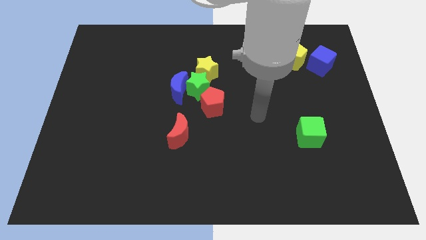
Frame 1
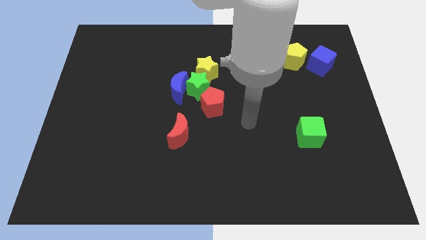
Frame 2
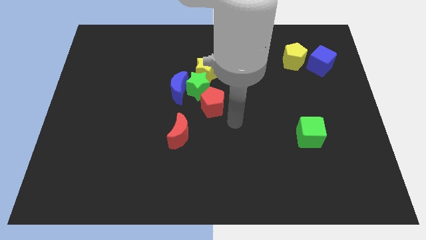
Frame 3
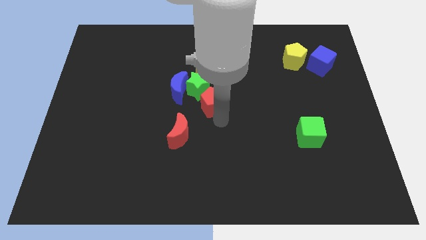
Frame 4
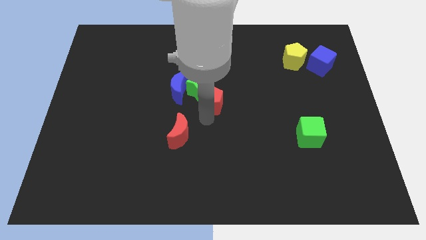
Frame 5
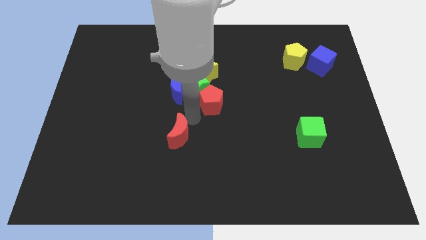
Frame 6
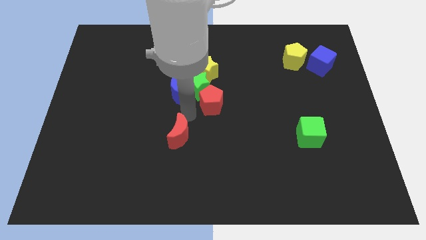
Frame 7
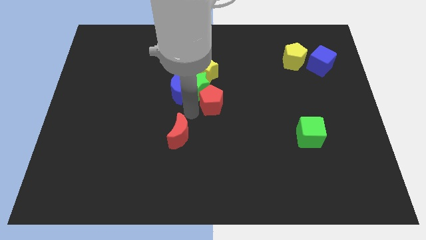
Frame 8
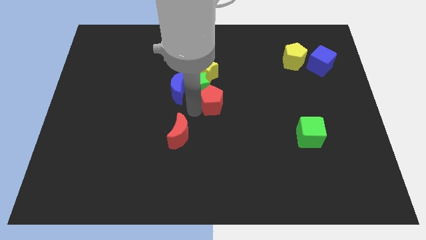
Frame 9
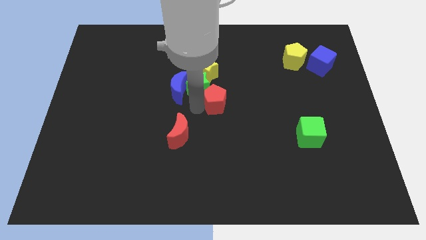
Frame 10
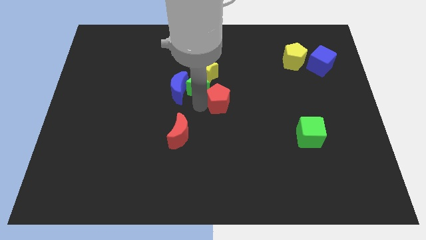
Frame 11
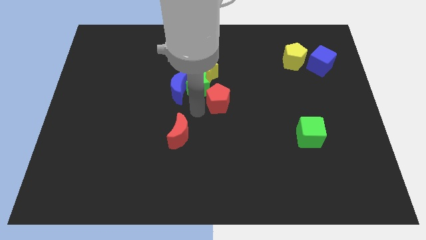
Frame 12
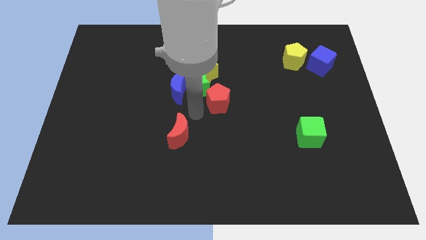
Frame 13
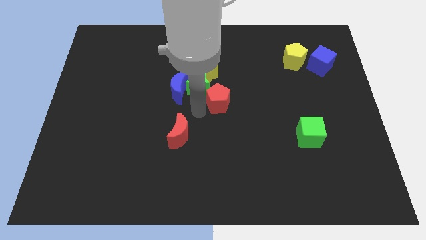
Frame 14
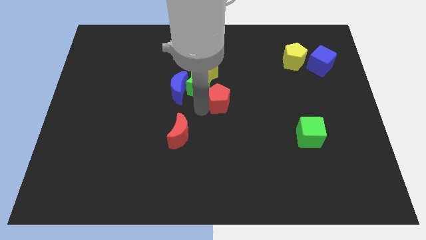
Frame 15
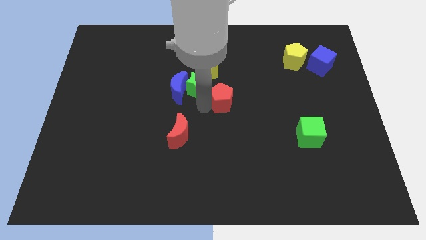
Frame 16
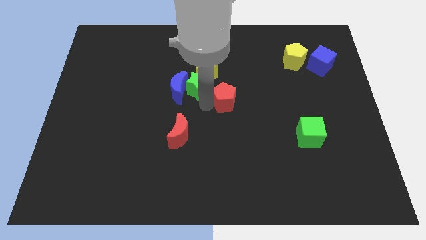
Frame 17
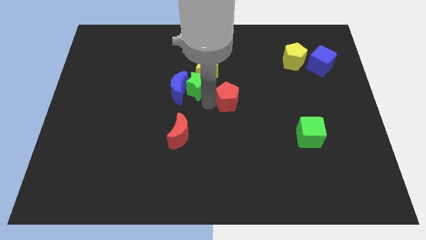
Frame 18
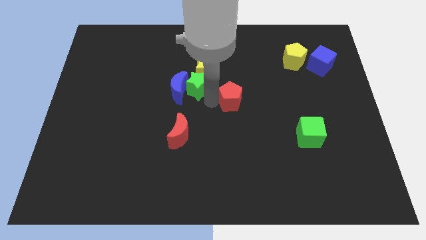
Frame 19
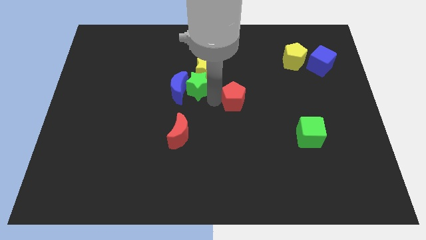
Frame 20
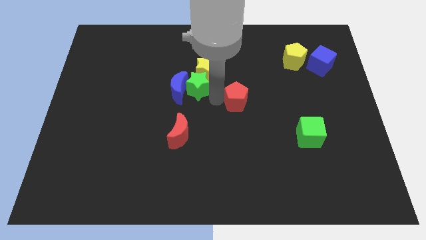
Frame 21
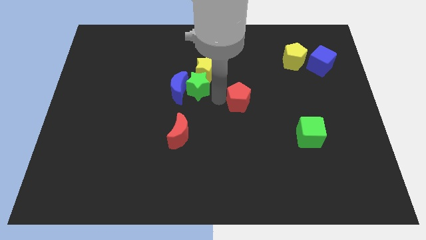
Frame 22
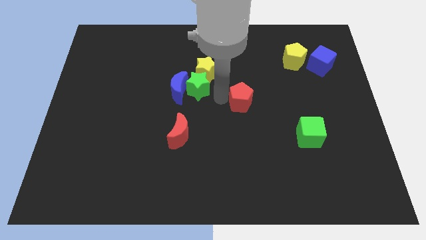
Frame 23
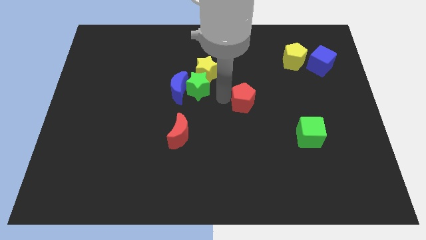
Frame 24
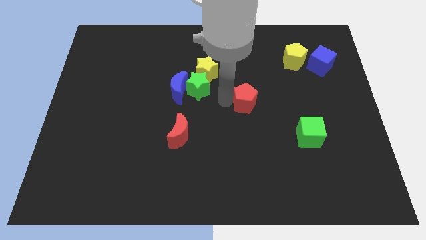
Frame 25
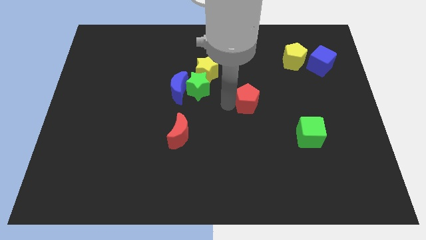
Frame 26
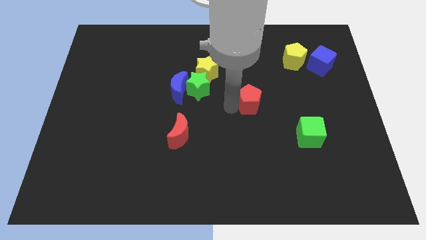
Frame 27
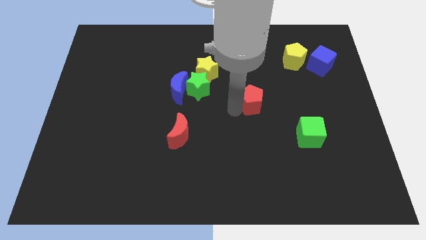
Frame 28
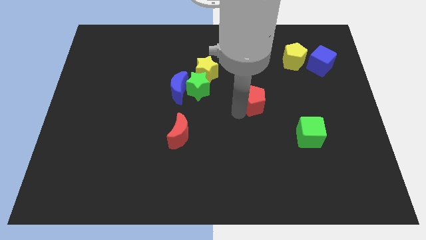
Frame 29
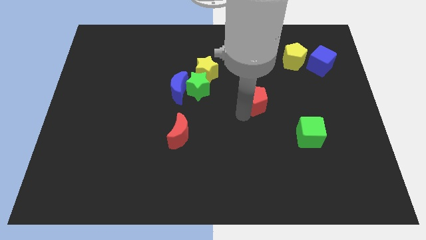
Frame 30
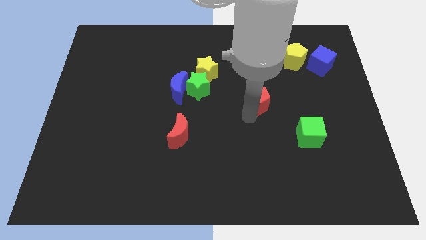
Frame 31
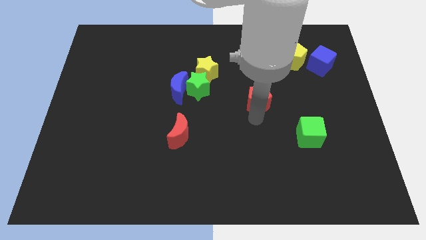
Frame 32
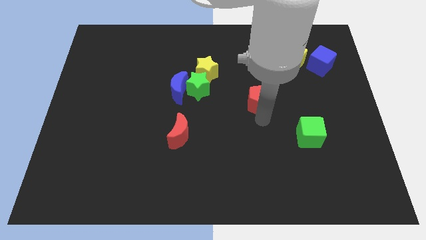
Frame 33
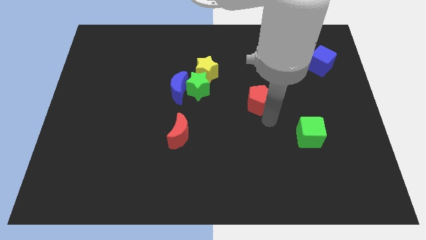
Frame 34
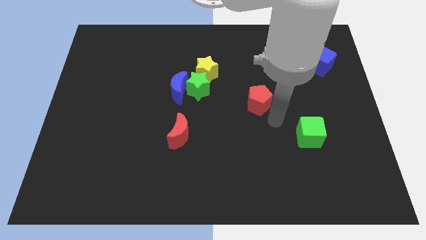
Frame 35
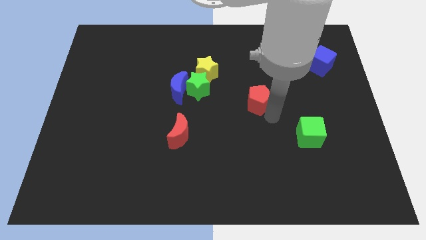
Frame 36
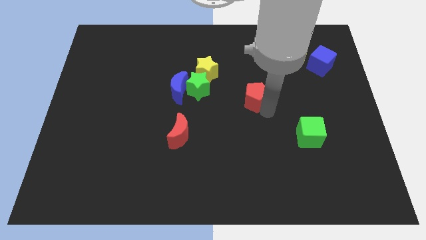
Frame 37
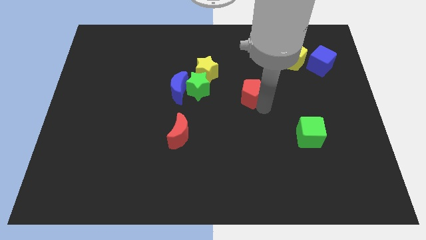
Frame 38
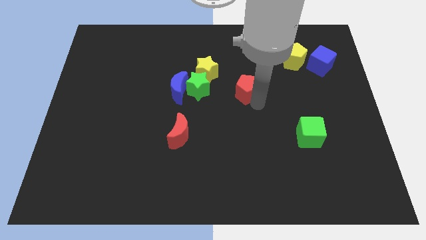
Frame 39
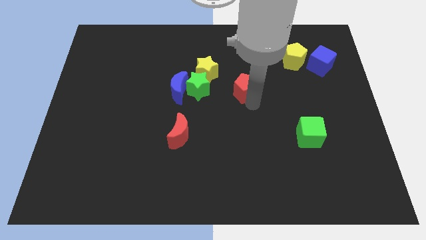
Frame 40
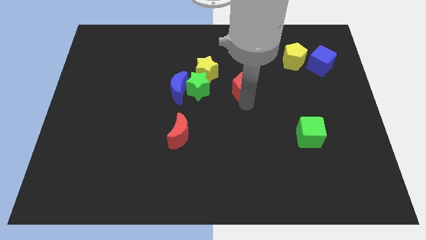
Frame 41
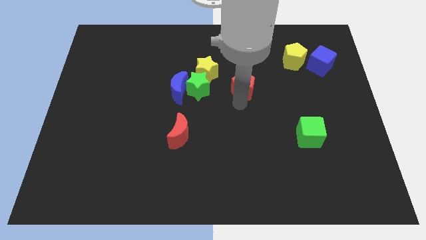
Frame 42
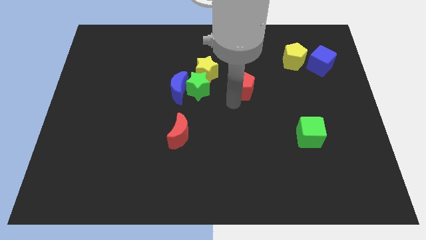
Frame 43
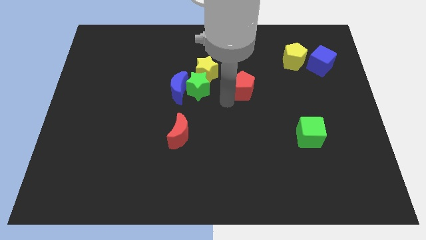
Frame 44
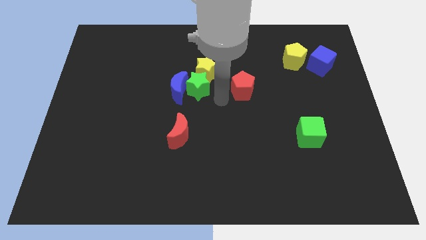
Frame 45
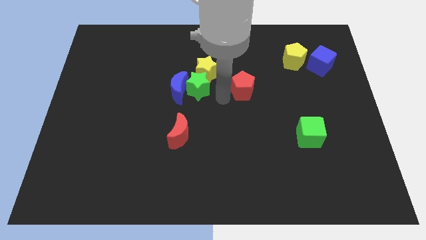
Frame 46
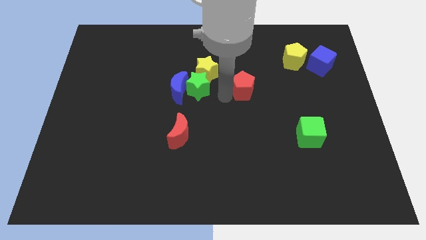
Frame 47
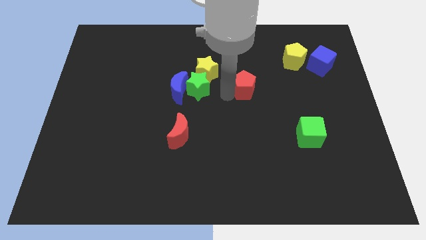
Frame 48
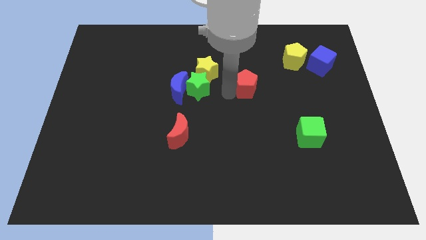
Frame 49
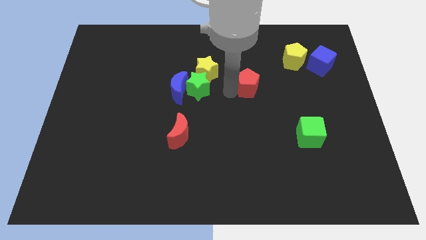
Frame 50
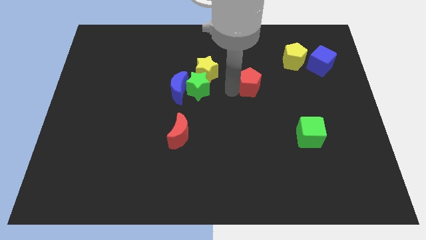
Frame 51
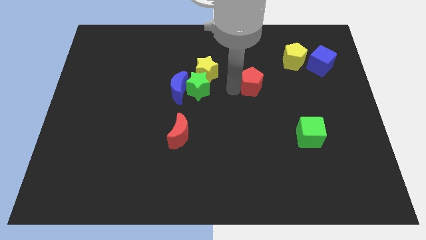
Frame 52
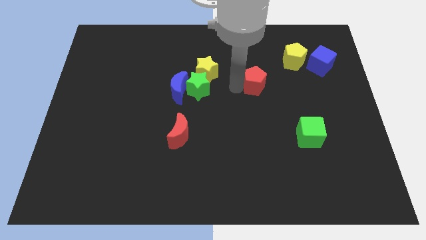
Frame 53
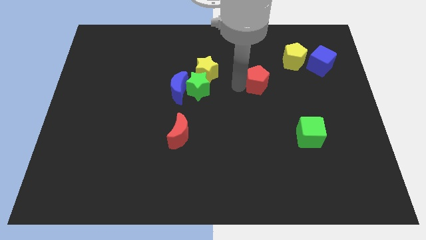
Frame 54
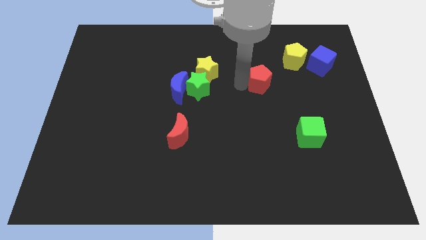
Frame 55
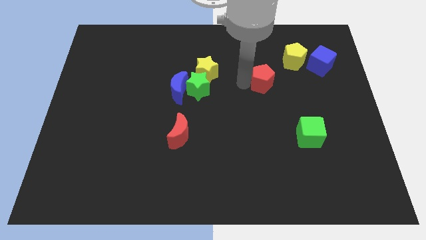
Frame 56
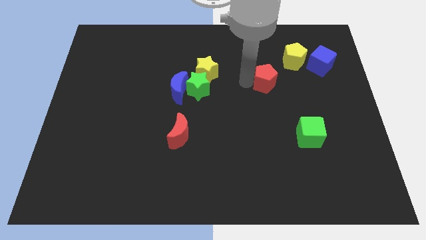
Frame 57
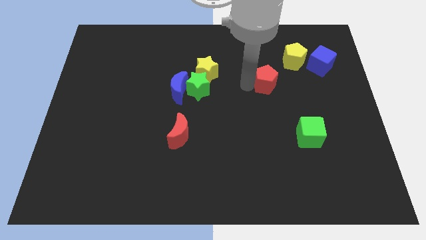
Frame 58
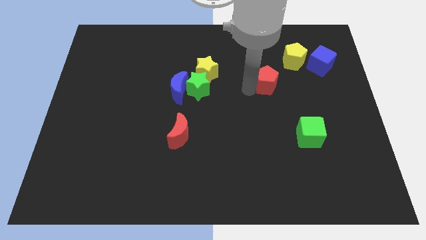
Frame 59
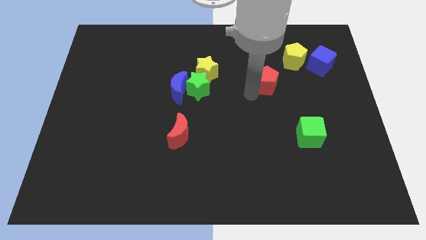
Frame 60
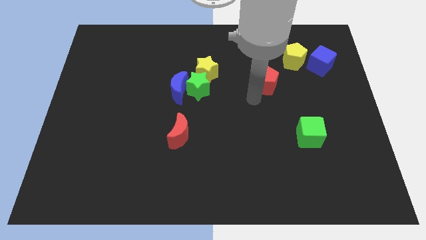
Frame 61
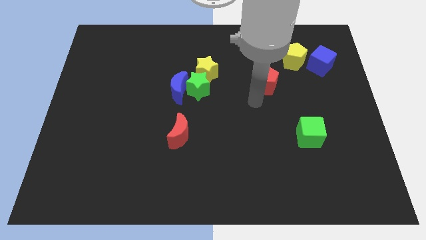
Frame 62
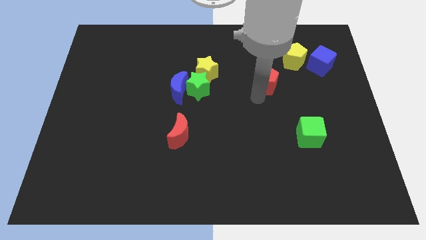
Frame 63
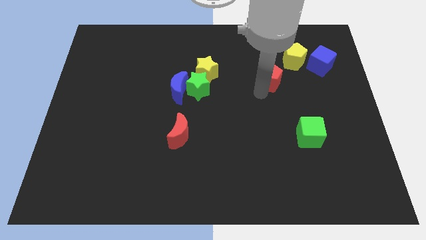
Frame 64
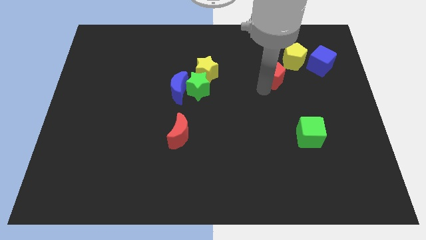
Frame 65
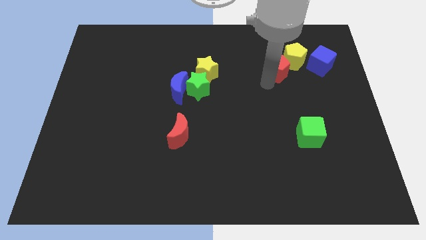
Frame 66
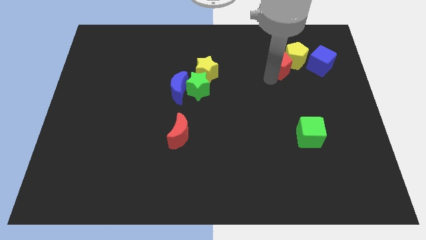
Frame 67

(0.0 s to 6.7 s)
move the red pentagon next to the yellow pentagon
